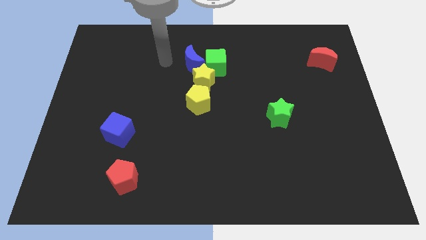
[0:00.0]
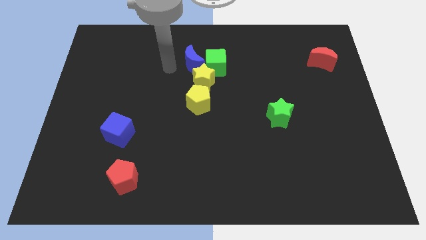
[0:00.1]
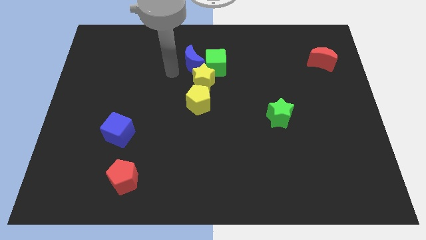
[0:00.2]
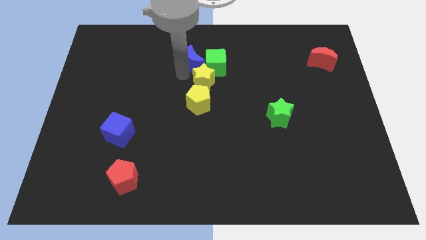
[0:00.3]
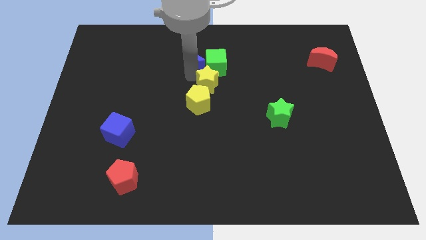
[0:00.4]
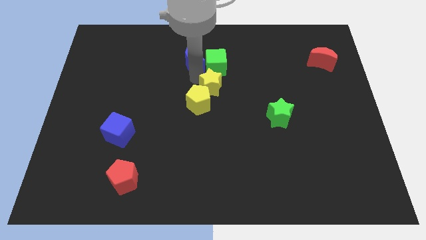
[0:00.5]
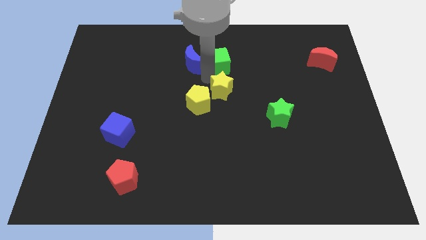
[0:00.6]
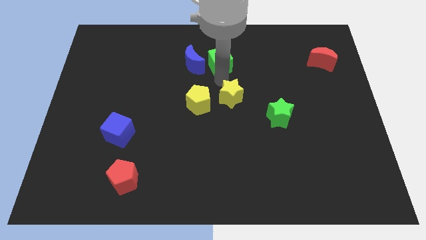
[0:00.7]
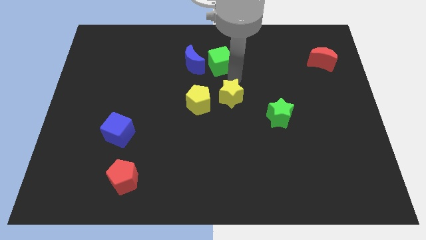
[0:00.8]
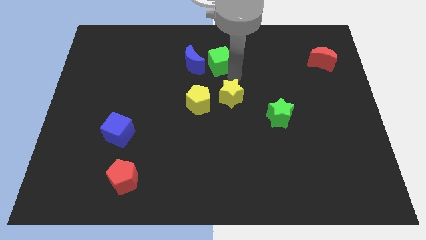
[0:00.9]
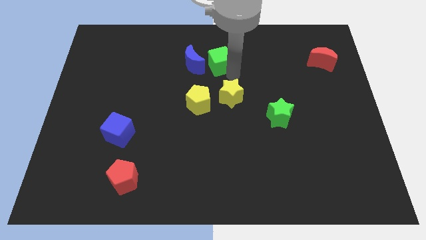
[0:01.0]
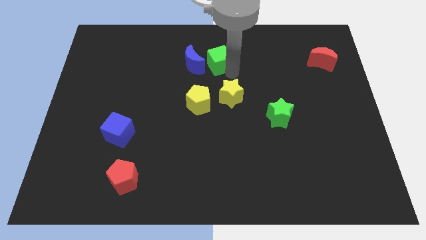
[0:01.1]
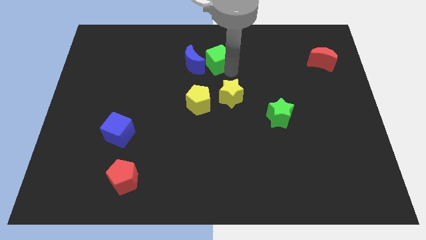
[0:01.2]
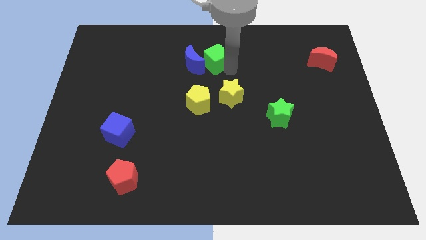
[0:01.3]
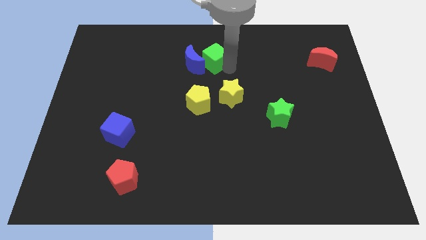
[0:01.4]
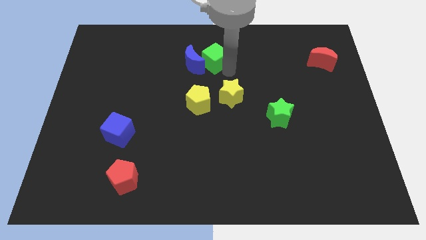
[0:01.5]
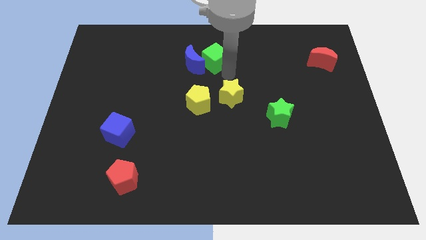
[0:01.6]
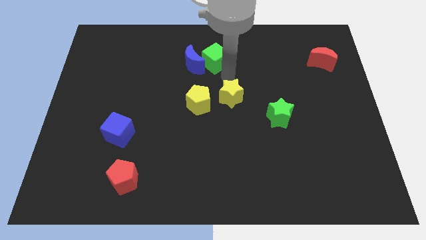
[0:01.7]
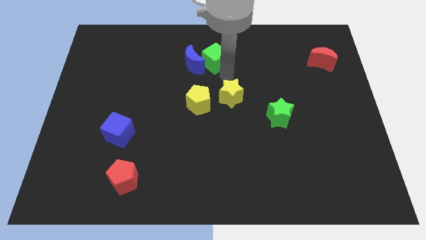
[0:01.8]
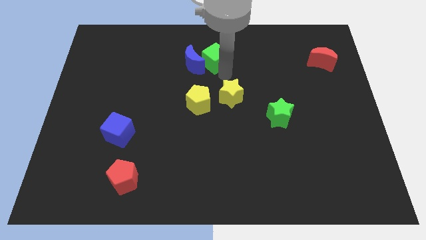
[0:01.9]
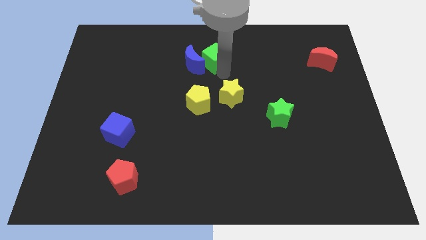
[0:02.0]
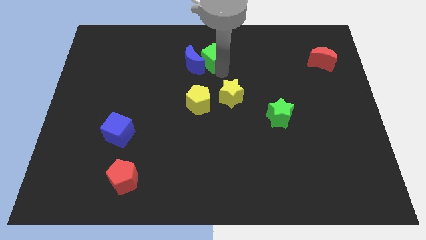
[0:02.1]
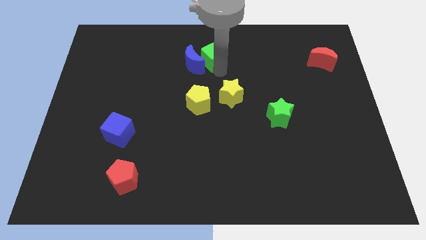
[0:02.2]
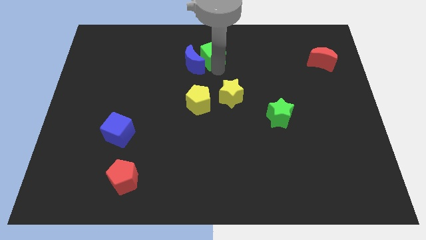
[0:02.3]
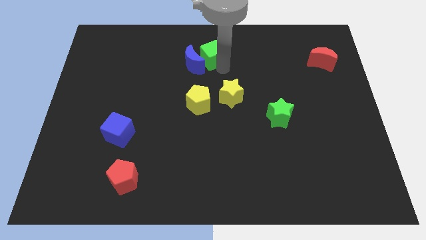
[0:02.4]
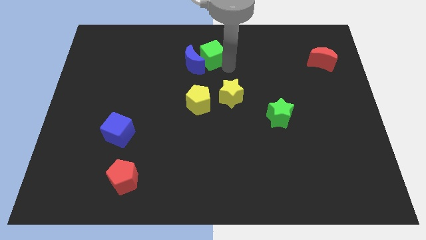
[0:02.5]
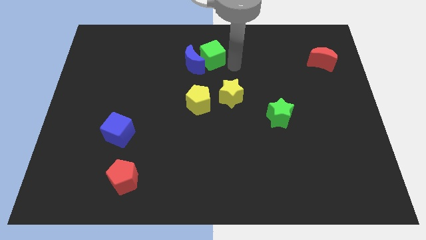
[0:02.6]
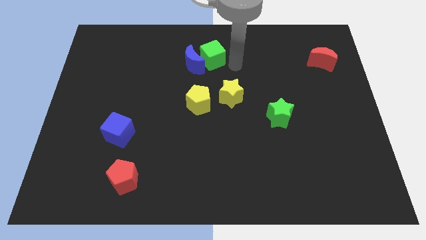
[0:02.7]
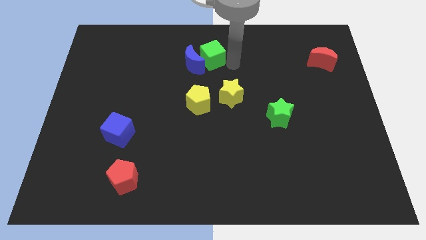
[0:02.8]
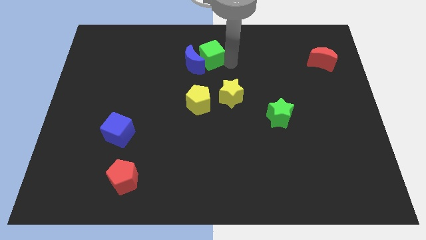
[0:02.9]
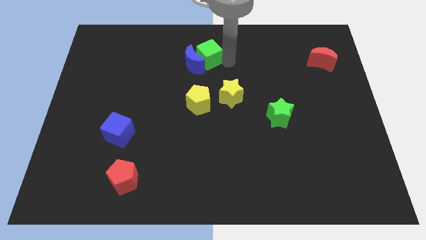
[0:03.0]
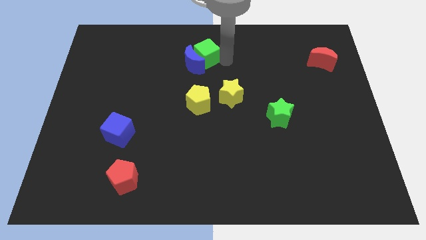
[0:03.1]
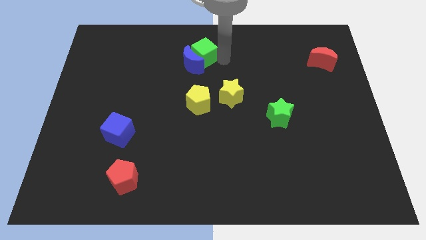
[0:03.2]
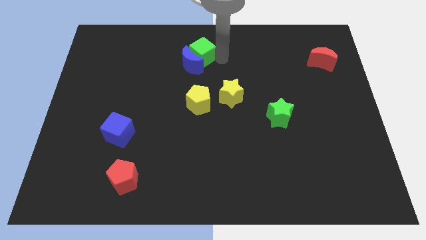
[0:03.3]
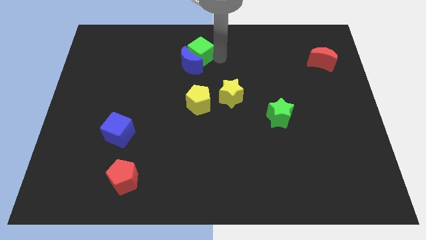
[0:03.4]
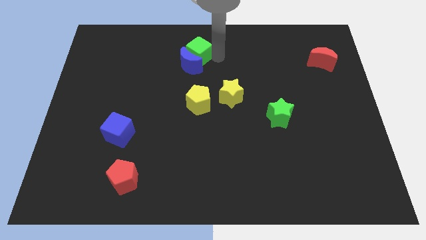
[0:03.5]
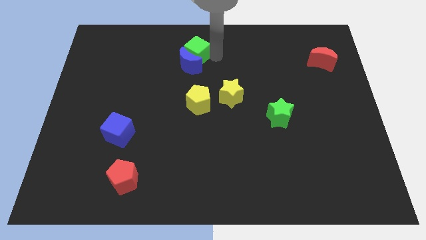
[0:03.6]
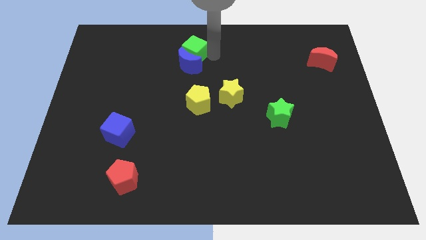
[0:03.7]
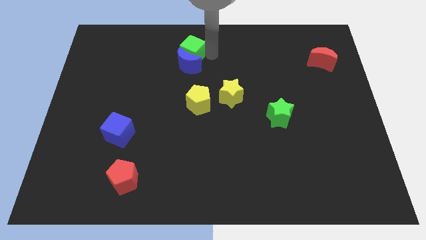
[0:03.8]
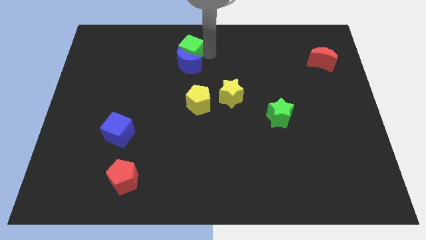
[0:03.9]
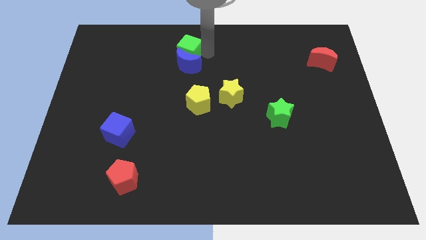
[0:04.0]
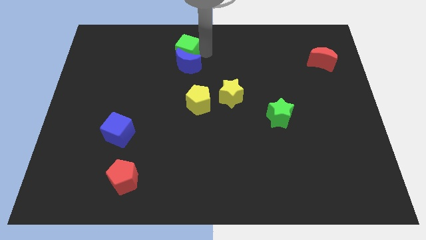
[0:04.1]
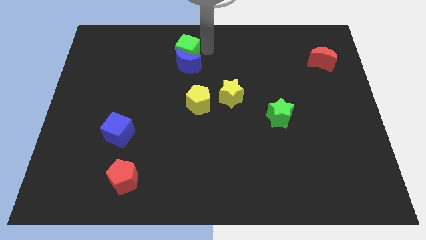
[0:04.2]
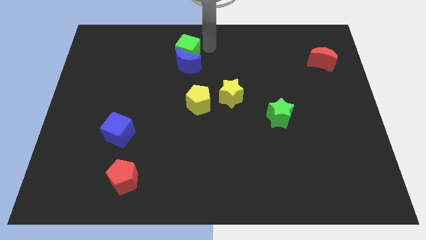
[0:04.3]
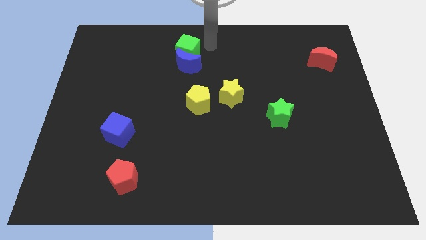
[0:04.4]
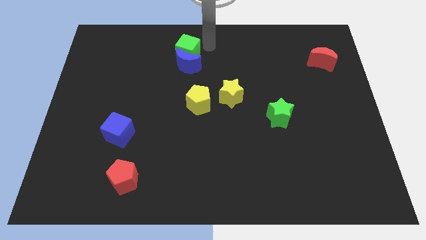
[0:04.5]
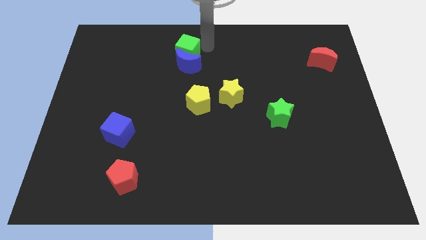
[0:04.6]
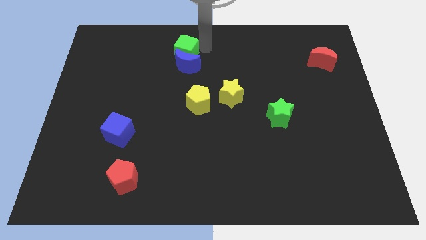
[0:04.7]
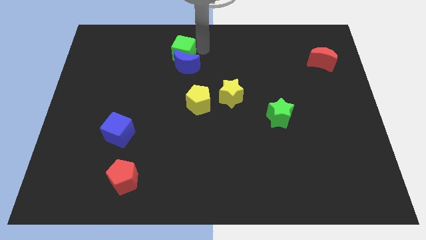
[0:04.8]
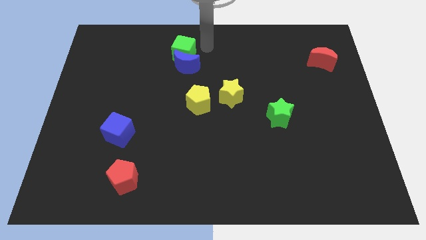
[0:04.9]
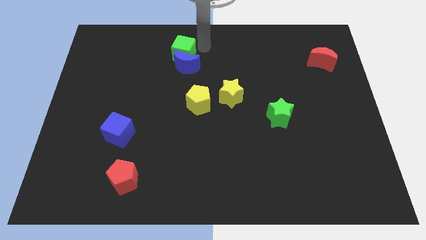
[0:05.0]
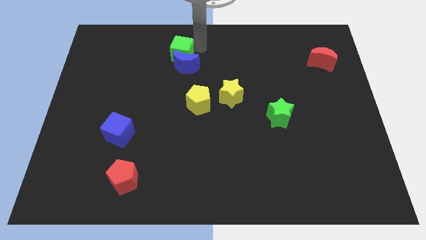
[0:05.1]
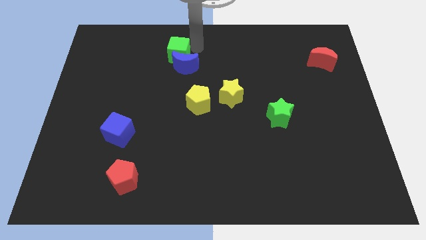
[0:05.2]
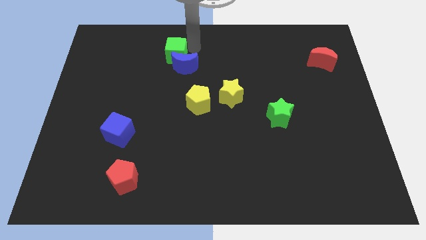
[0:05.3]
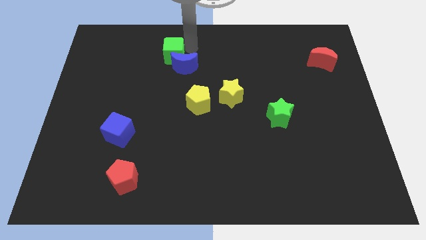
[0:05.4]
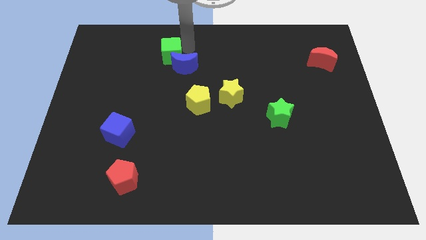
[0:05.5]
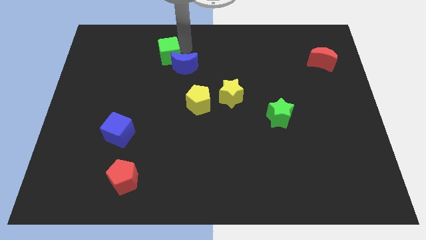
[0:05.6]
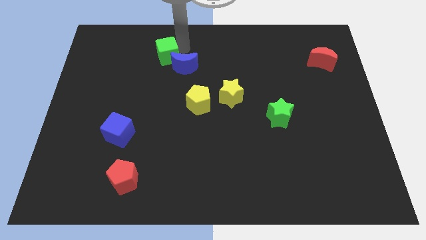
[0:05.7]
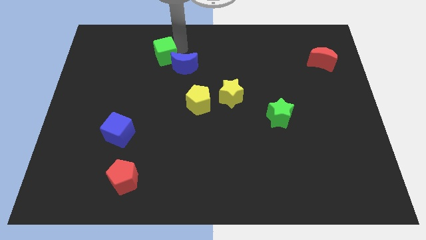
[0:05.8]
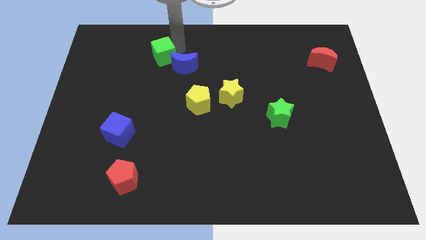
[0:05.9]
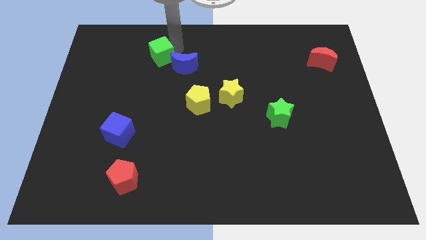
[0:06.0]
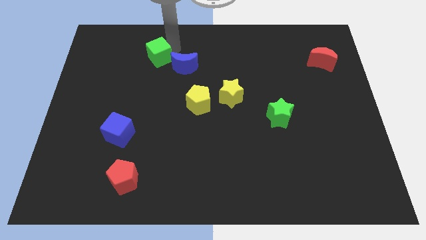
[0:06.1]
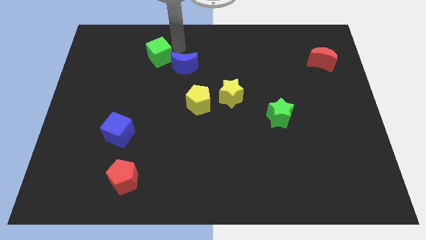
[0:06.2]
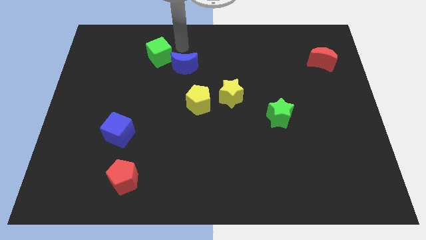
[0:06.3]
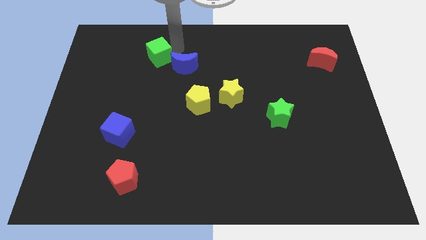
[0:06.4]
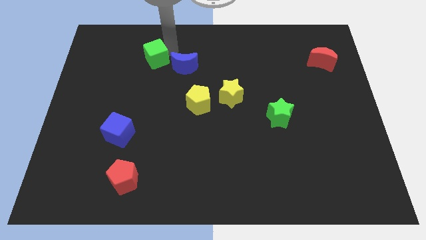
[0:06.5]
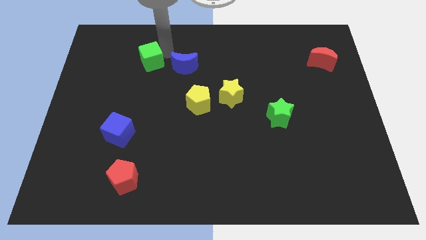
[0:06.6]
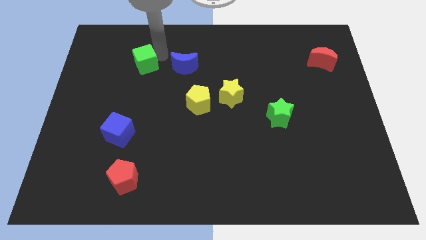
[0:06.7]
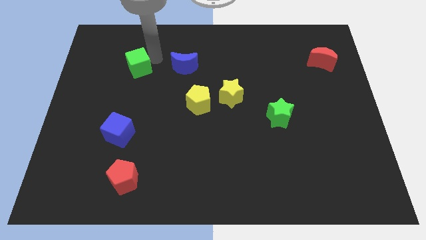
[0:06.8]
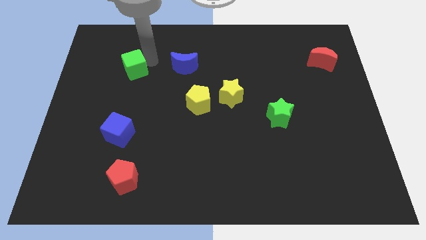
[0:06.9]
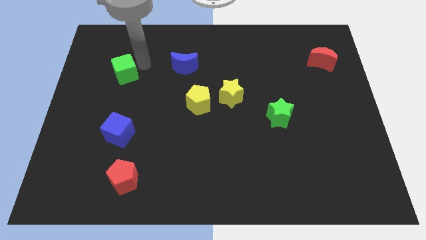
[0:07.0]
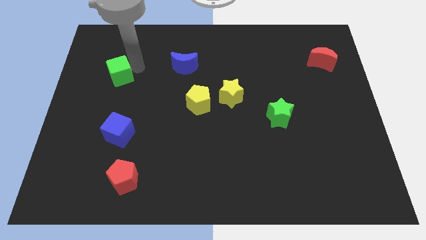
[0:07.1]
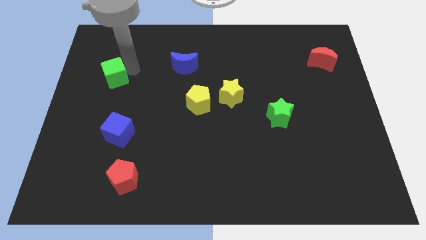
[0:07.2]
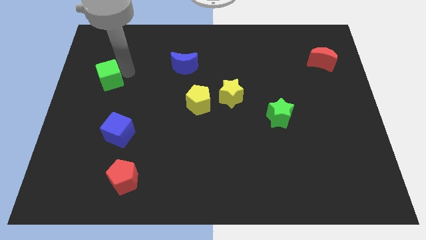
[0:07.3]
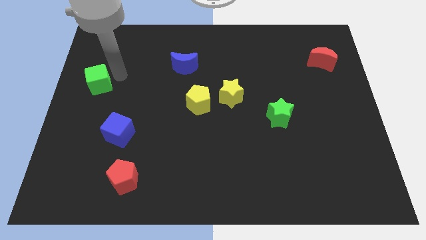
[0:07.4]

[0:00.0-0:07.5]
push the green cube to the center left
